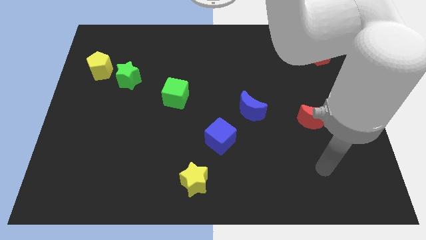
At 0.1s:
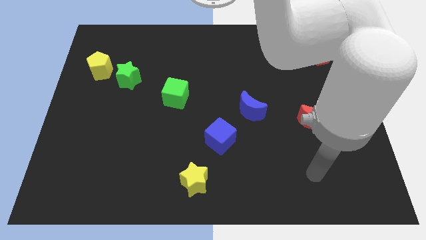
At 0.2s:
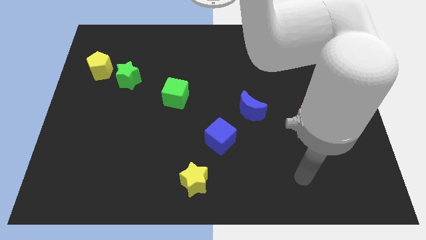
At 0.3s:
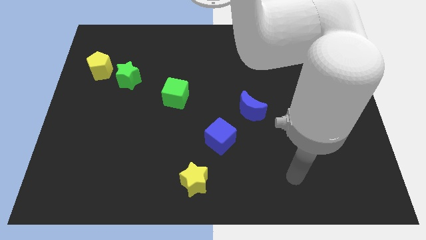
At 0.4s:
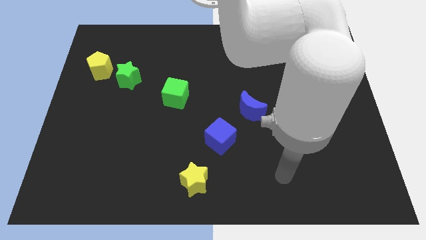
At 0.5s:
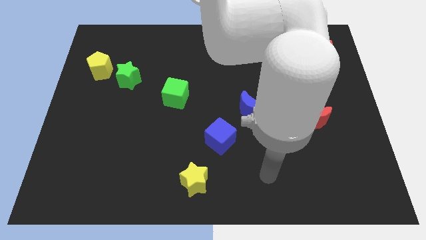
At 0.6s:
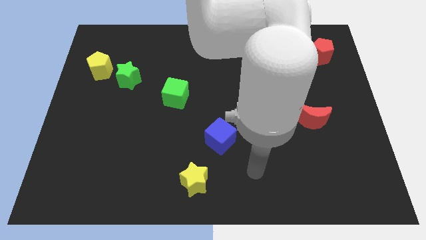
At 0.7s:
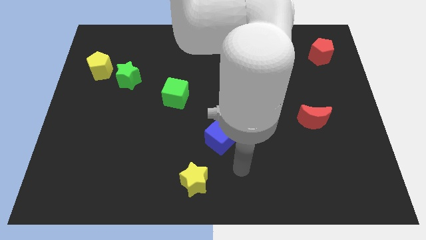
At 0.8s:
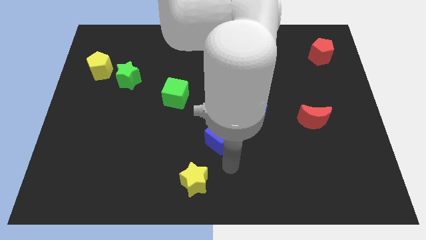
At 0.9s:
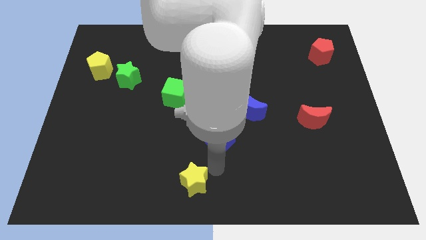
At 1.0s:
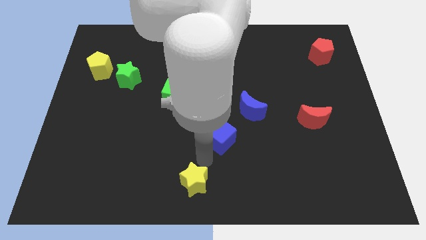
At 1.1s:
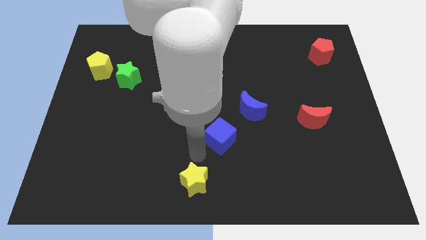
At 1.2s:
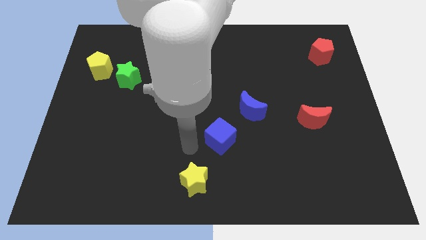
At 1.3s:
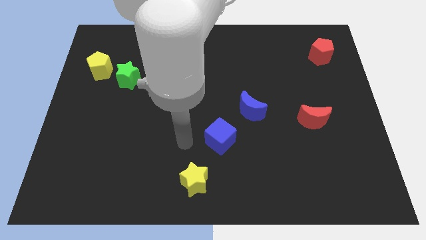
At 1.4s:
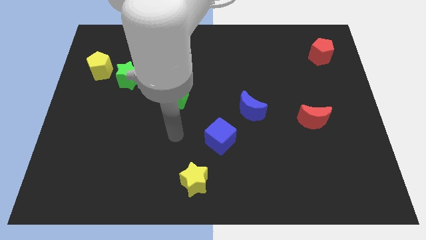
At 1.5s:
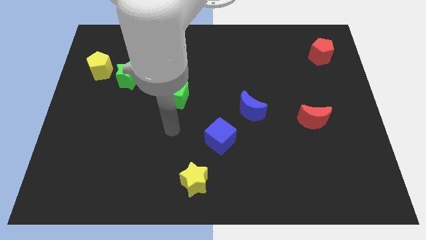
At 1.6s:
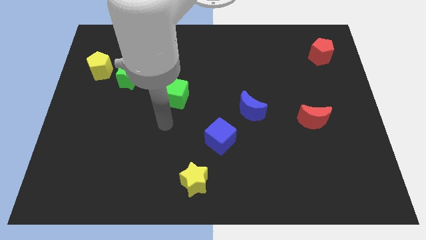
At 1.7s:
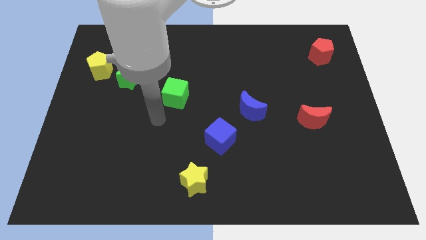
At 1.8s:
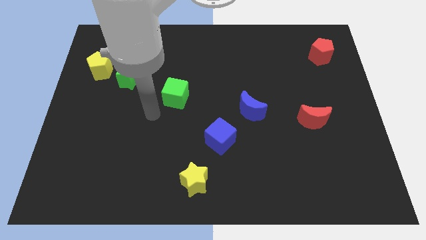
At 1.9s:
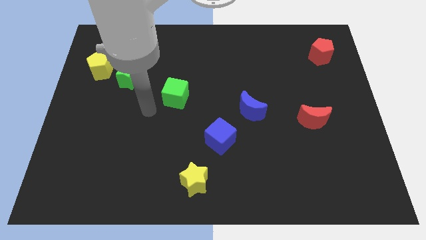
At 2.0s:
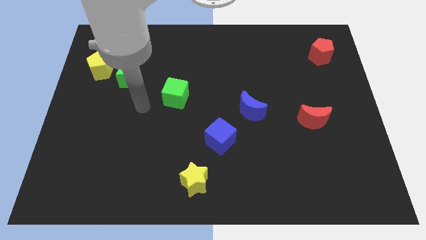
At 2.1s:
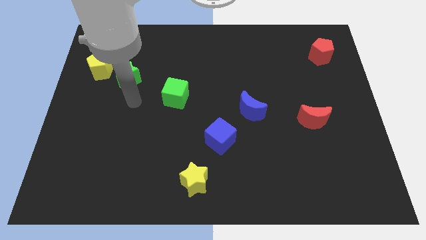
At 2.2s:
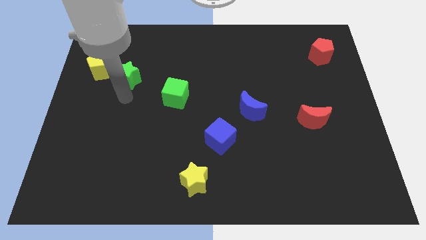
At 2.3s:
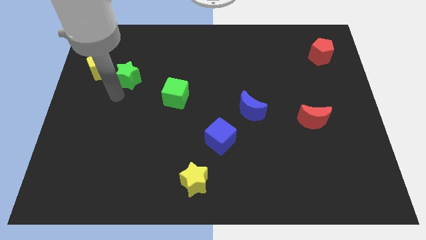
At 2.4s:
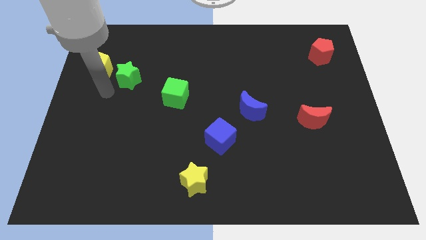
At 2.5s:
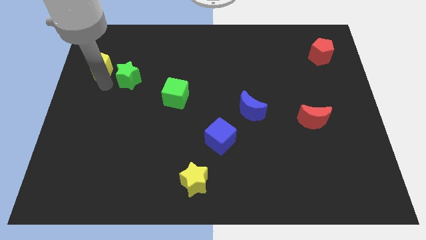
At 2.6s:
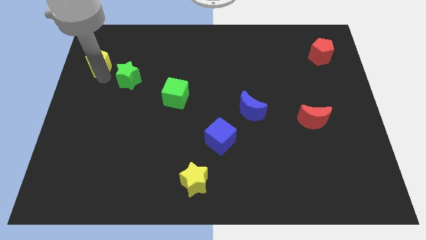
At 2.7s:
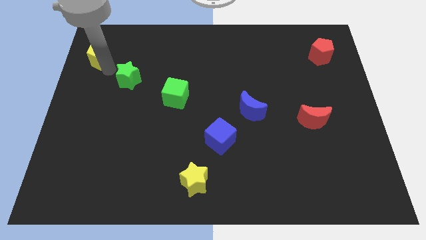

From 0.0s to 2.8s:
pull the green star apart from the yellow pentagon

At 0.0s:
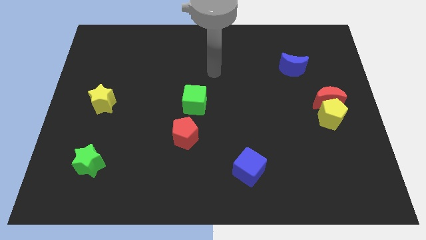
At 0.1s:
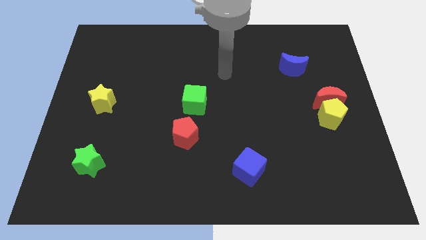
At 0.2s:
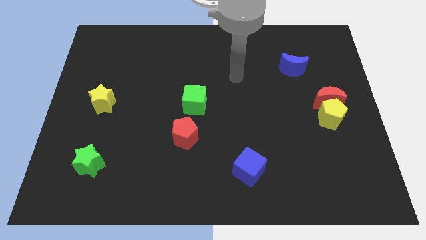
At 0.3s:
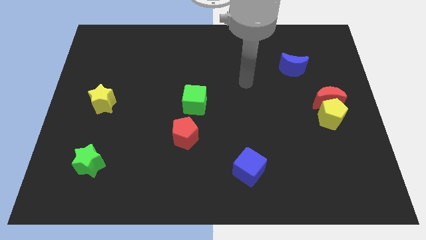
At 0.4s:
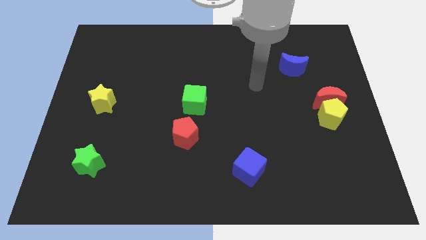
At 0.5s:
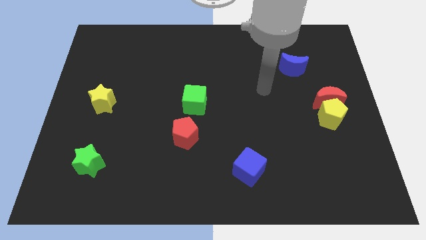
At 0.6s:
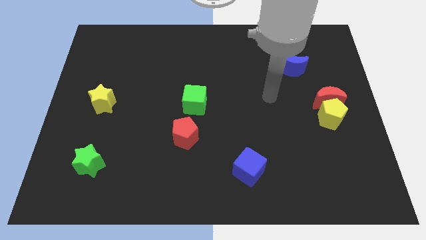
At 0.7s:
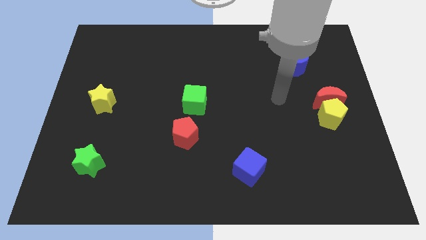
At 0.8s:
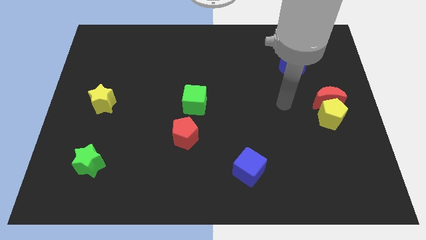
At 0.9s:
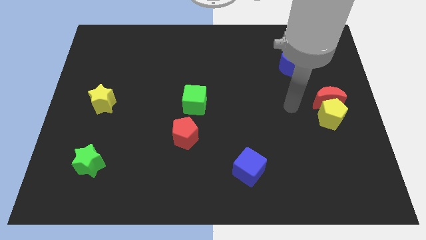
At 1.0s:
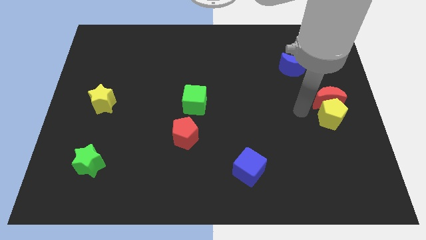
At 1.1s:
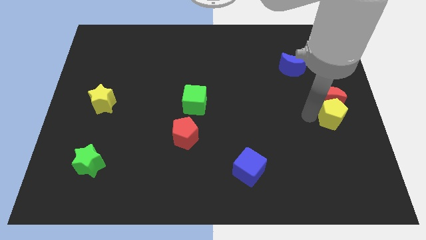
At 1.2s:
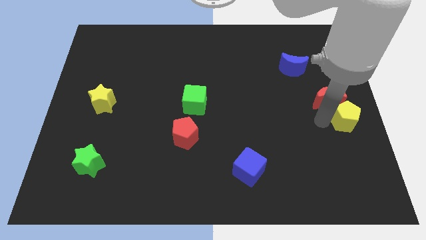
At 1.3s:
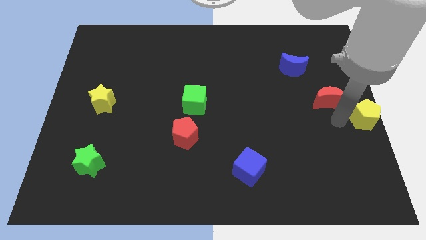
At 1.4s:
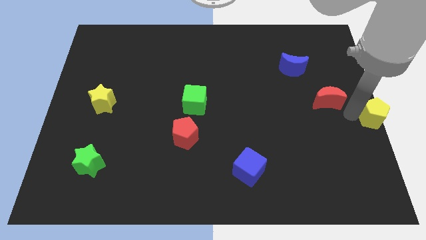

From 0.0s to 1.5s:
move the red moon away from the yellow pentagon

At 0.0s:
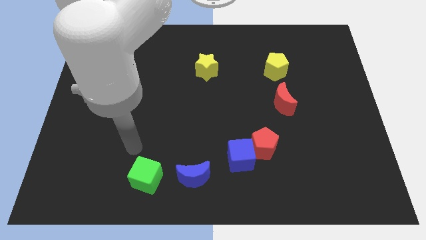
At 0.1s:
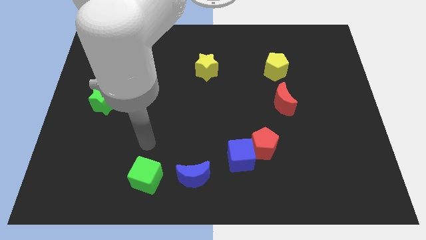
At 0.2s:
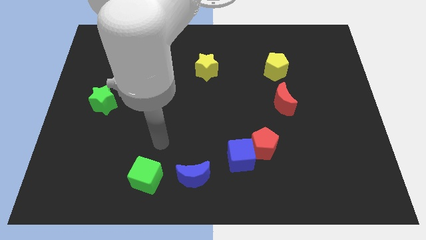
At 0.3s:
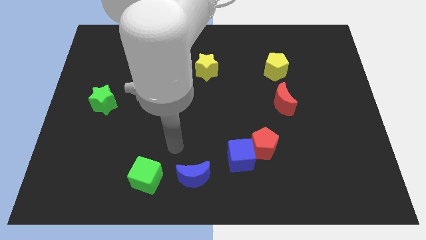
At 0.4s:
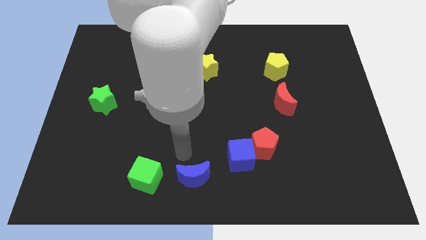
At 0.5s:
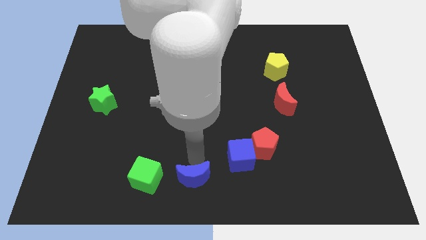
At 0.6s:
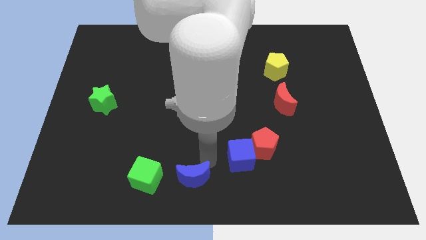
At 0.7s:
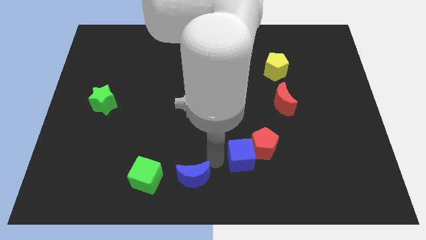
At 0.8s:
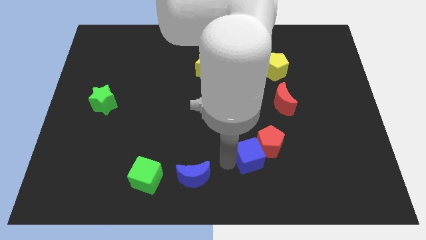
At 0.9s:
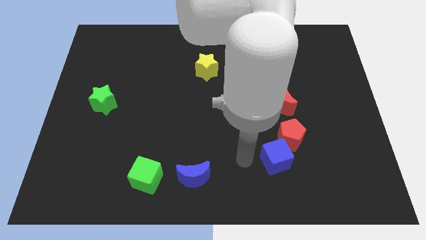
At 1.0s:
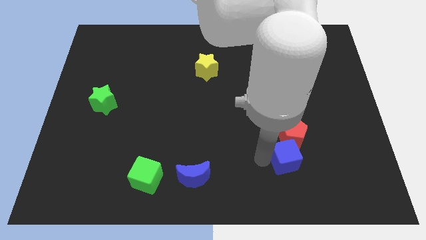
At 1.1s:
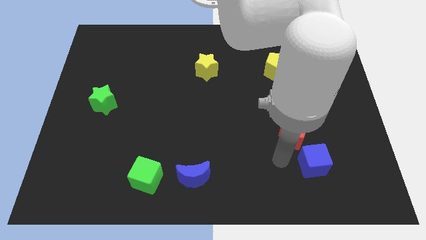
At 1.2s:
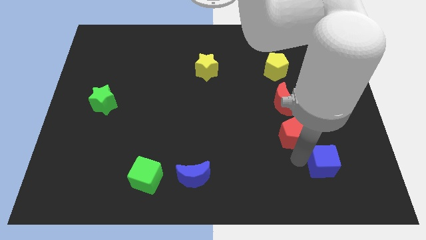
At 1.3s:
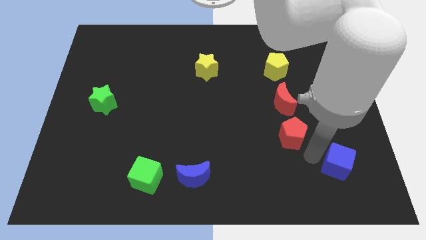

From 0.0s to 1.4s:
pull the red pentagon apart from the blue cube

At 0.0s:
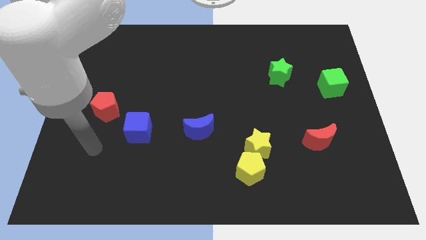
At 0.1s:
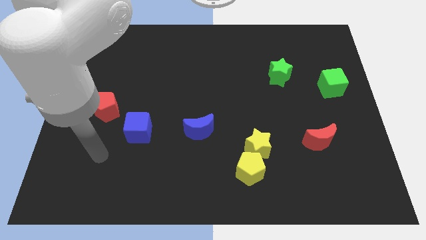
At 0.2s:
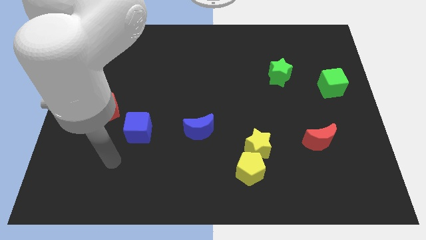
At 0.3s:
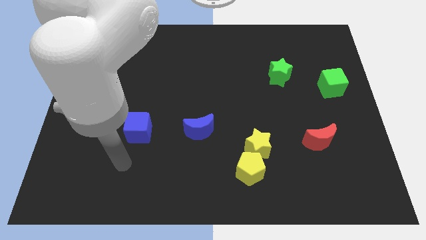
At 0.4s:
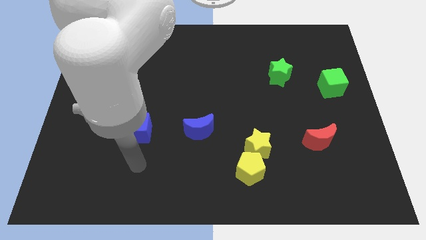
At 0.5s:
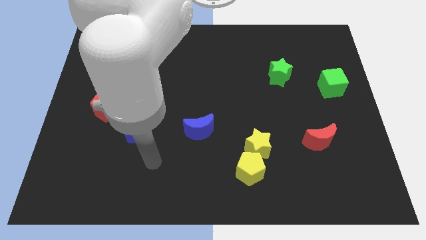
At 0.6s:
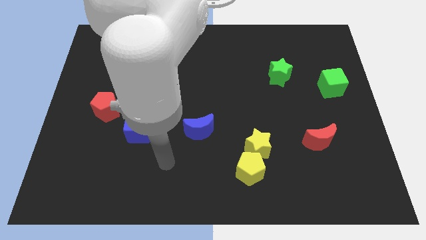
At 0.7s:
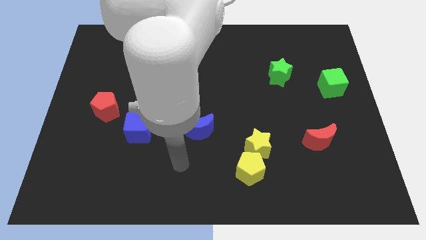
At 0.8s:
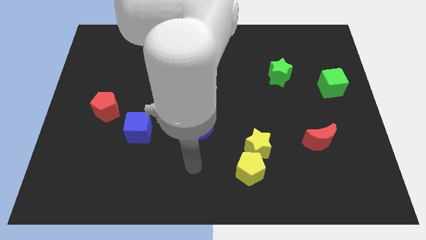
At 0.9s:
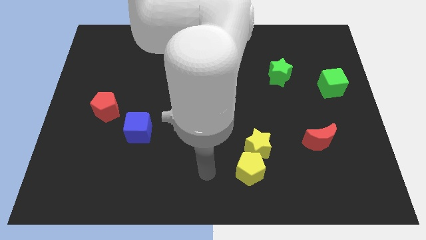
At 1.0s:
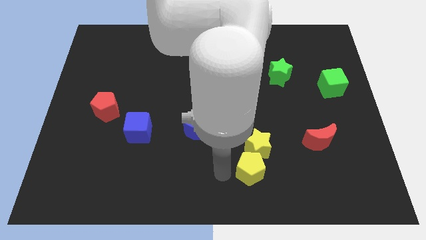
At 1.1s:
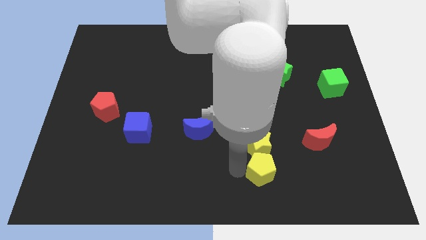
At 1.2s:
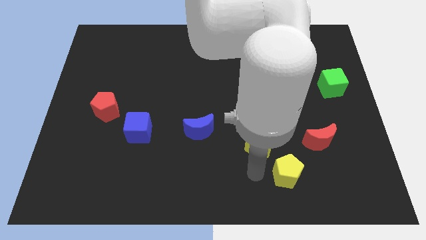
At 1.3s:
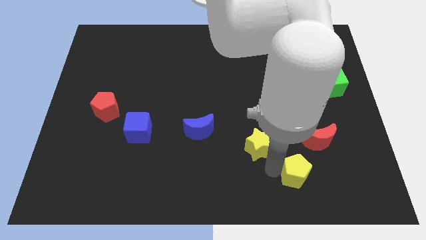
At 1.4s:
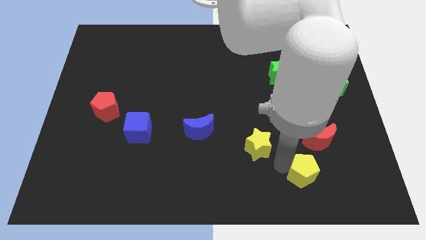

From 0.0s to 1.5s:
move the yellow star away from the yellow pentagon

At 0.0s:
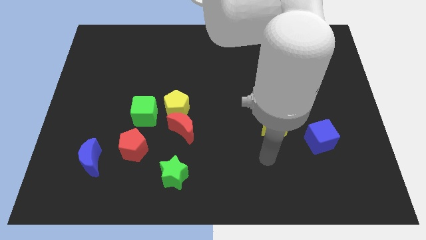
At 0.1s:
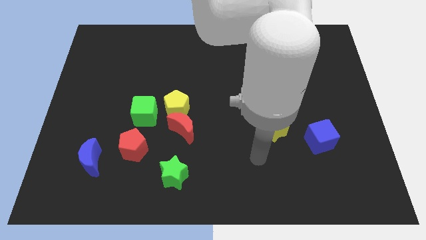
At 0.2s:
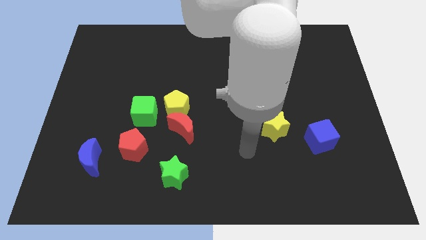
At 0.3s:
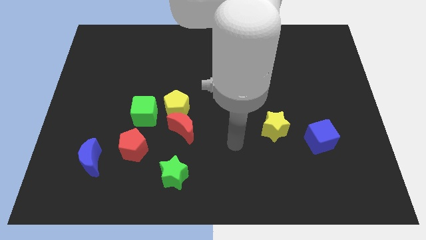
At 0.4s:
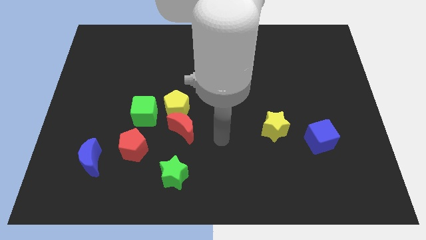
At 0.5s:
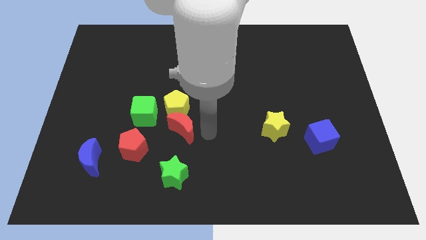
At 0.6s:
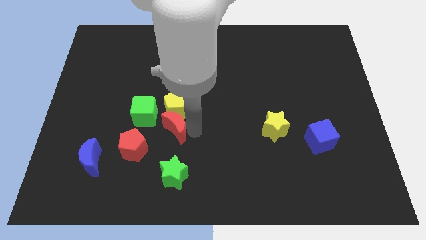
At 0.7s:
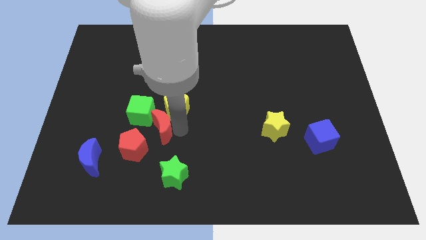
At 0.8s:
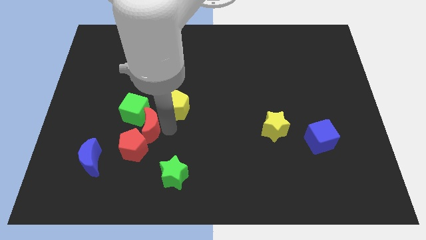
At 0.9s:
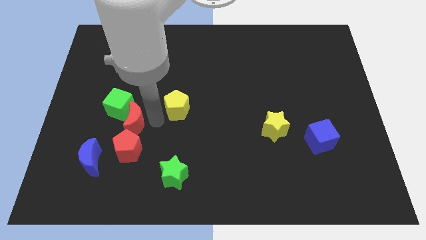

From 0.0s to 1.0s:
separate the yellow pentagon from the red moon and green cube

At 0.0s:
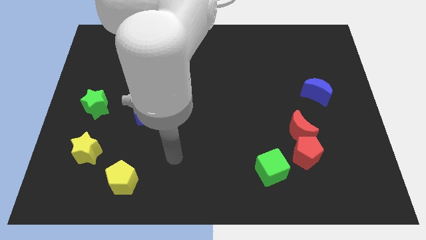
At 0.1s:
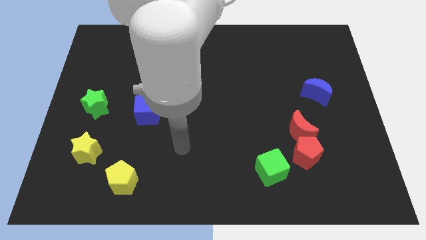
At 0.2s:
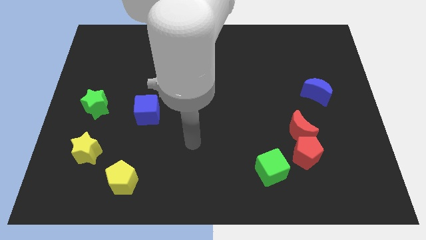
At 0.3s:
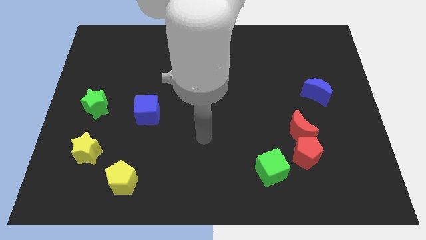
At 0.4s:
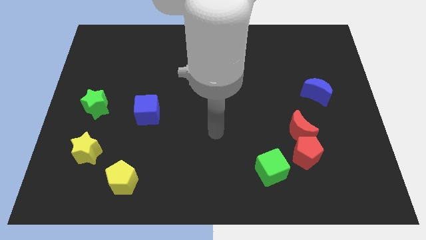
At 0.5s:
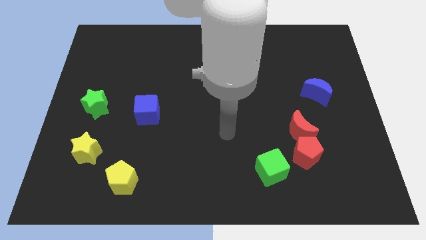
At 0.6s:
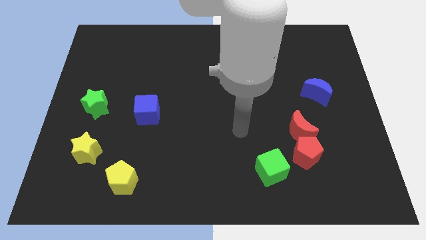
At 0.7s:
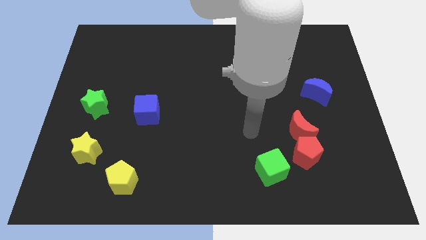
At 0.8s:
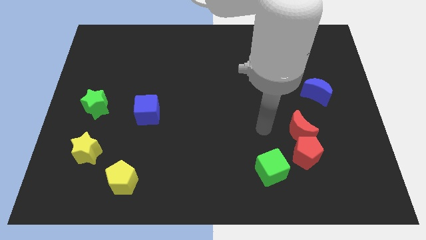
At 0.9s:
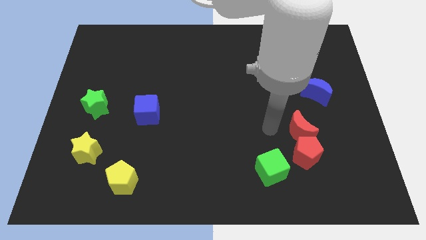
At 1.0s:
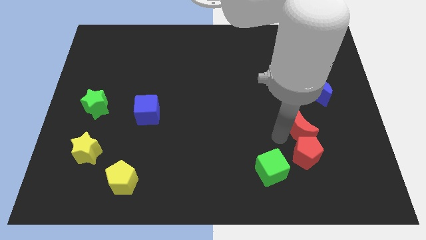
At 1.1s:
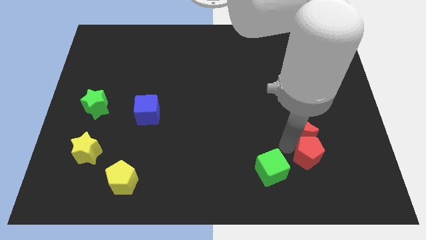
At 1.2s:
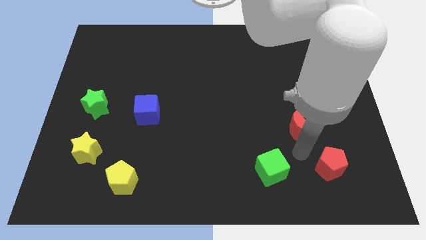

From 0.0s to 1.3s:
move the red moon away from the red pentagon
